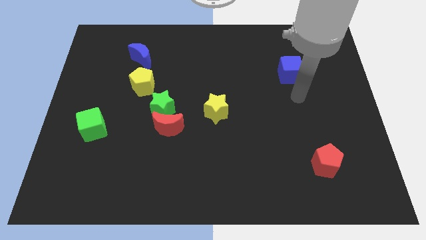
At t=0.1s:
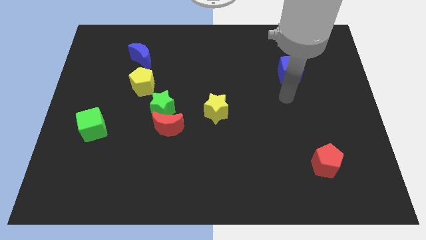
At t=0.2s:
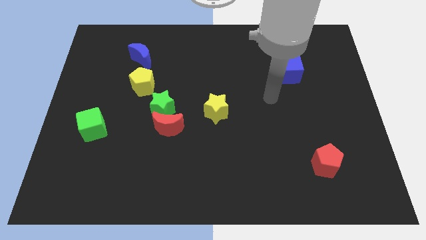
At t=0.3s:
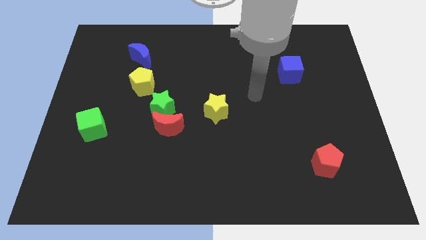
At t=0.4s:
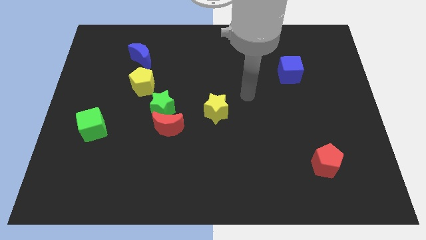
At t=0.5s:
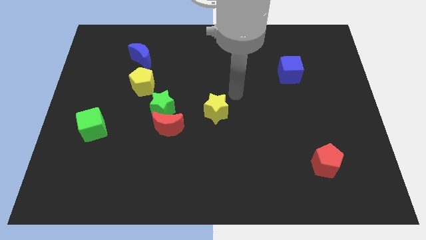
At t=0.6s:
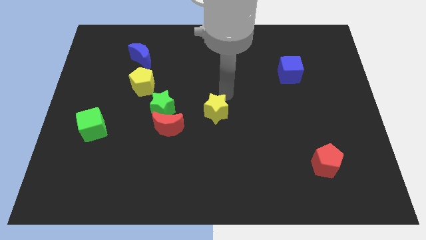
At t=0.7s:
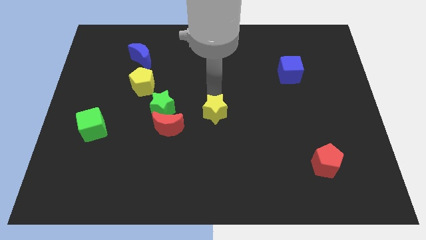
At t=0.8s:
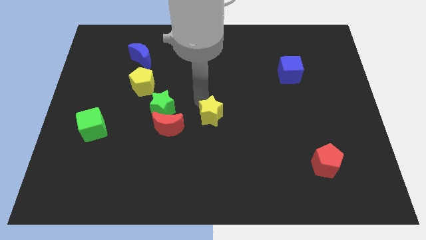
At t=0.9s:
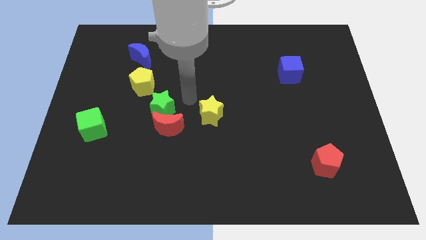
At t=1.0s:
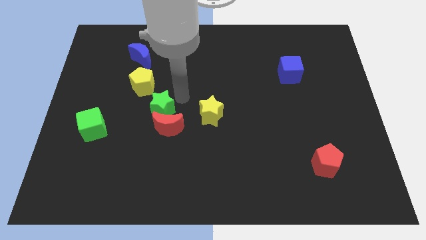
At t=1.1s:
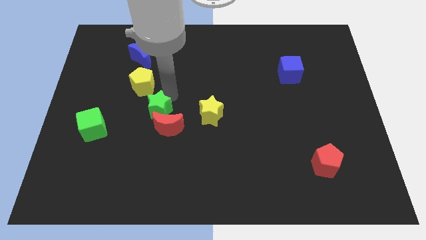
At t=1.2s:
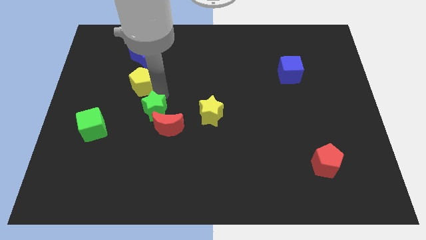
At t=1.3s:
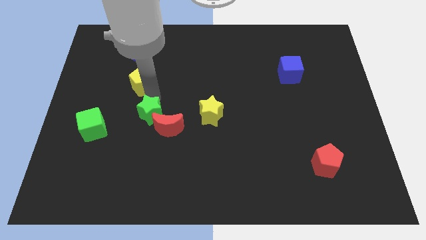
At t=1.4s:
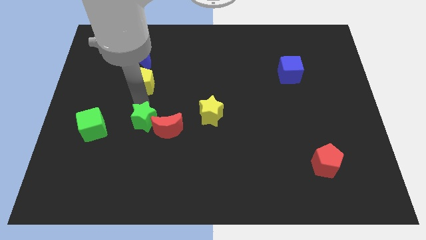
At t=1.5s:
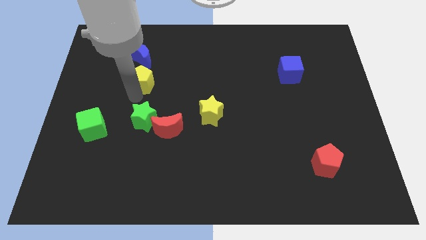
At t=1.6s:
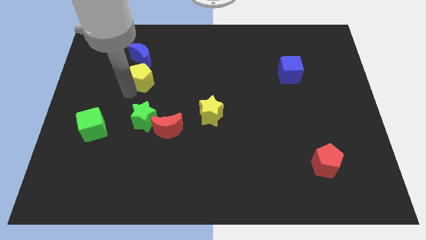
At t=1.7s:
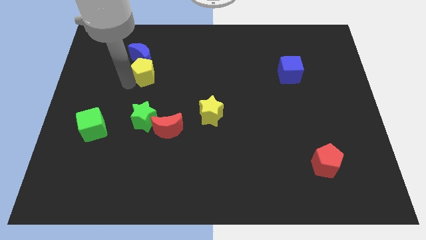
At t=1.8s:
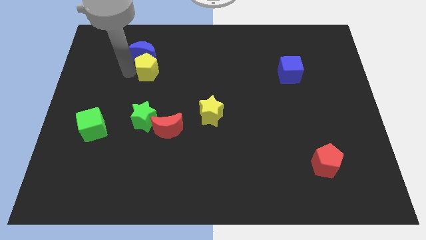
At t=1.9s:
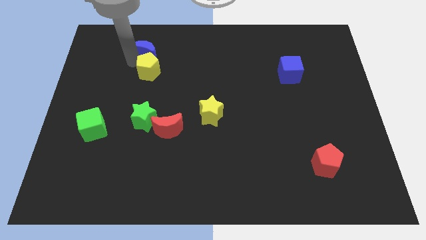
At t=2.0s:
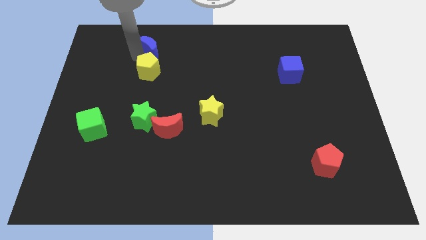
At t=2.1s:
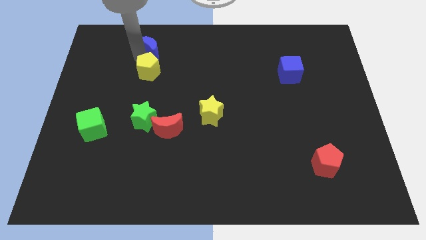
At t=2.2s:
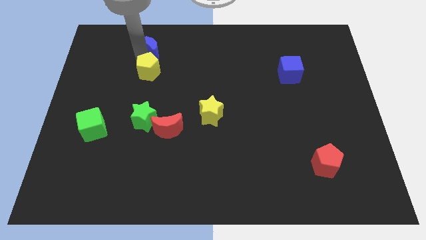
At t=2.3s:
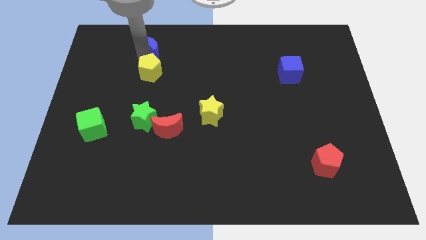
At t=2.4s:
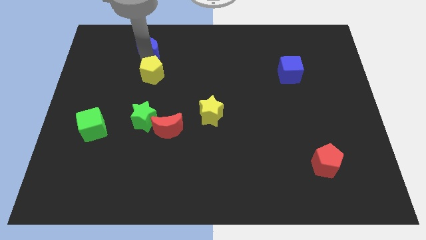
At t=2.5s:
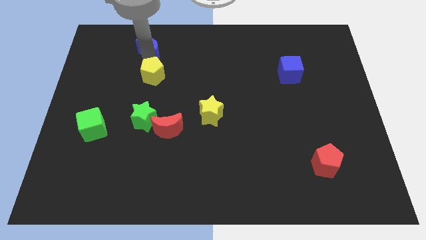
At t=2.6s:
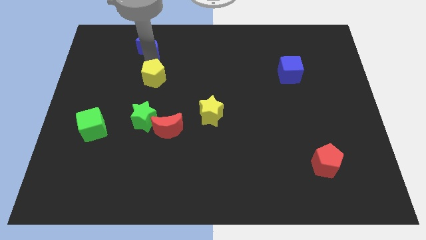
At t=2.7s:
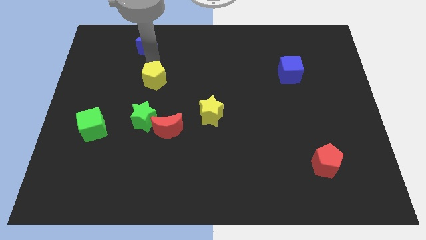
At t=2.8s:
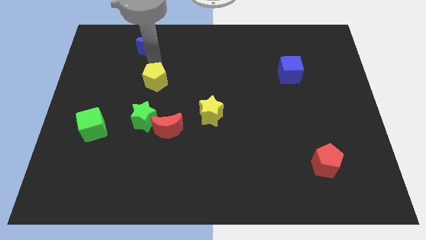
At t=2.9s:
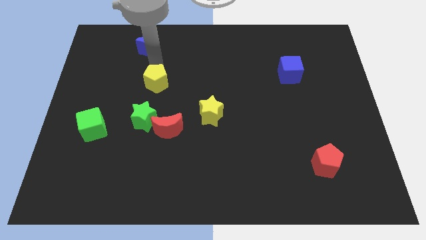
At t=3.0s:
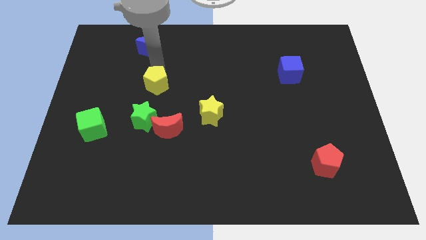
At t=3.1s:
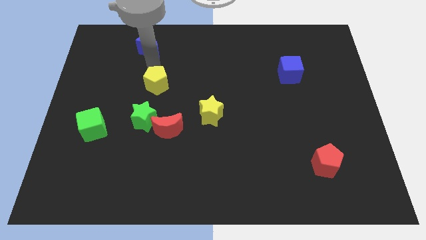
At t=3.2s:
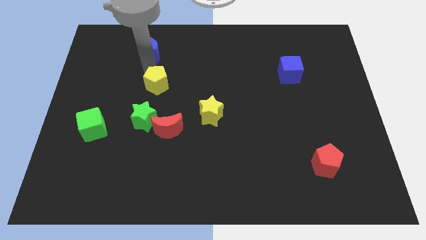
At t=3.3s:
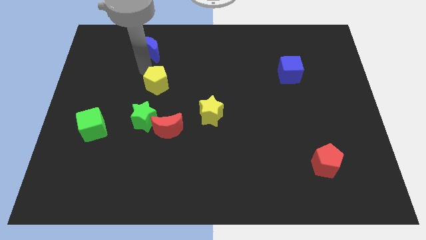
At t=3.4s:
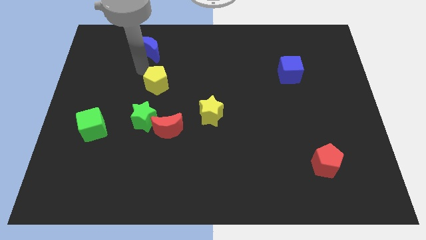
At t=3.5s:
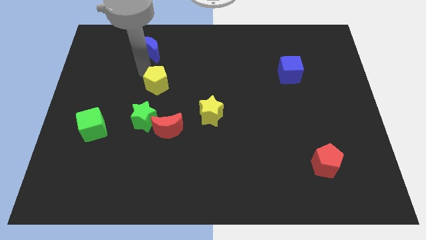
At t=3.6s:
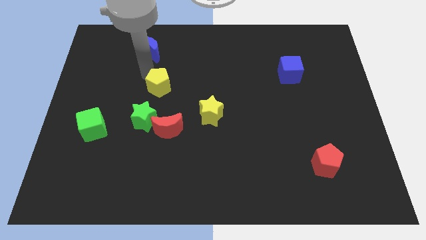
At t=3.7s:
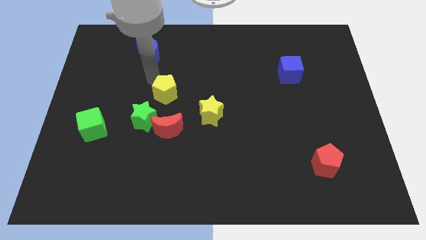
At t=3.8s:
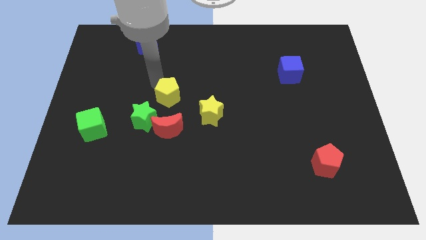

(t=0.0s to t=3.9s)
slightly slide the yellow pentagon downwards and right

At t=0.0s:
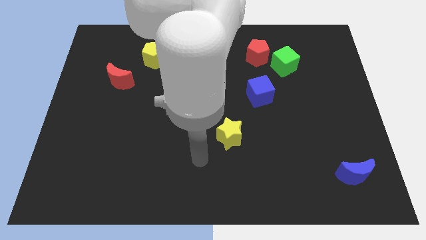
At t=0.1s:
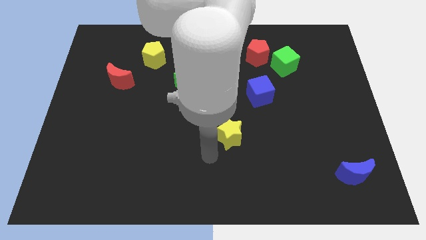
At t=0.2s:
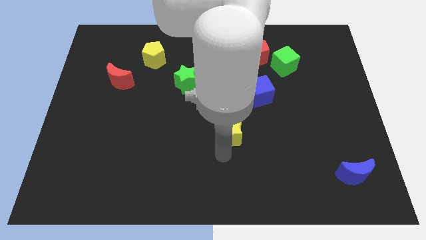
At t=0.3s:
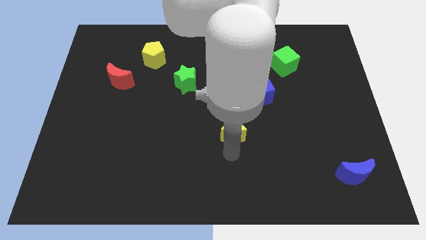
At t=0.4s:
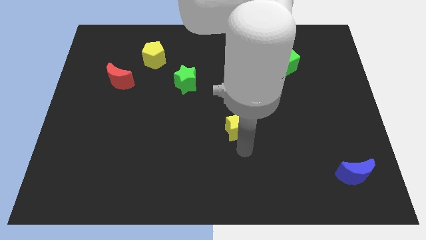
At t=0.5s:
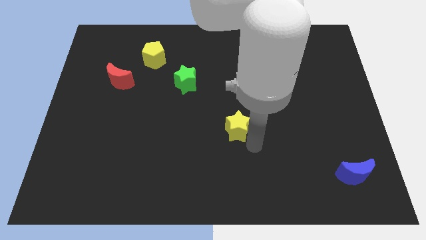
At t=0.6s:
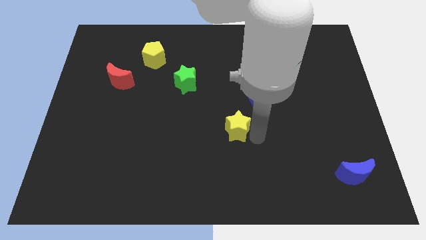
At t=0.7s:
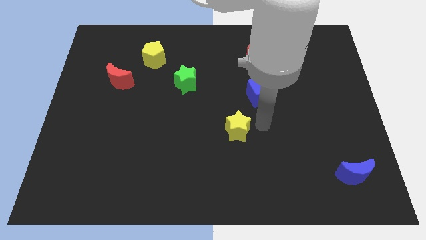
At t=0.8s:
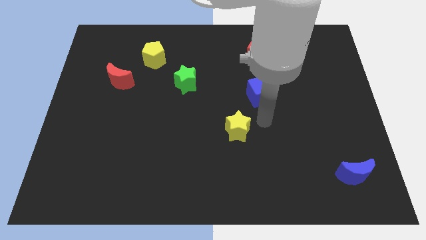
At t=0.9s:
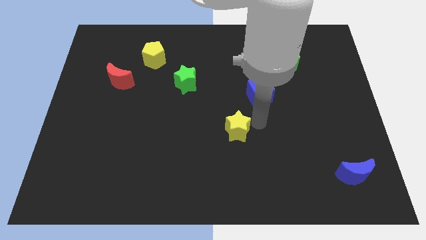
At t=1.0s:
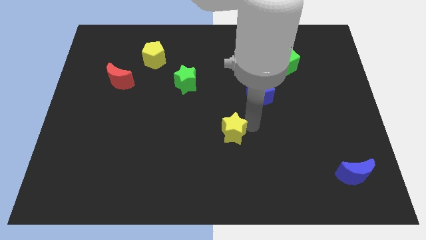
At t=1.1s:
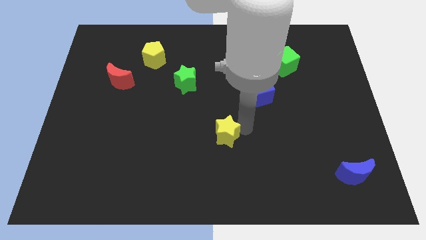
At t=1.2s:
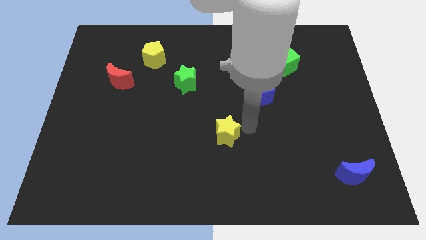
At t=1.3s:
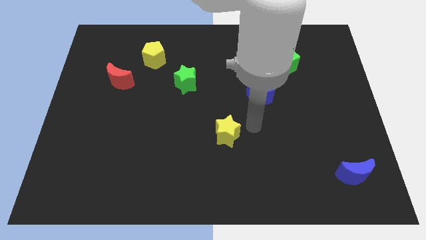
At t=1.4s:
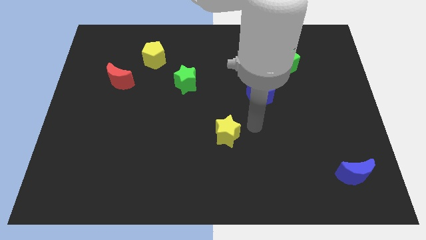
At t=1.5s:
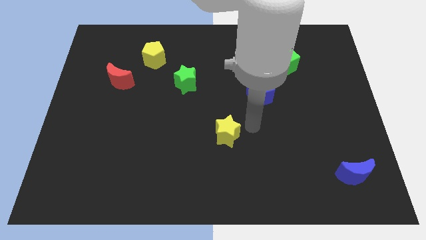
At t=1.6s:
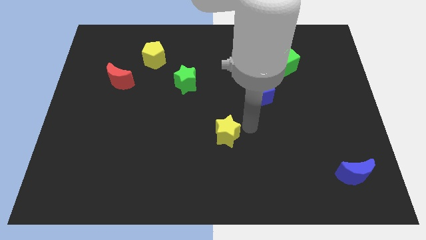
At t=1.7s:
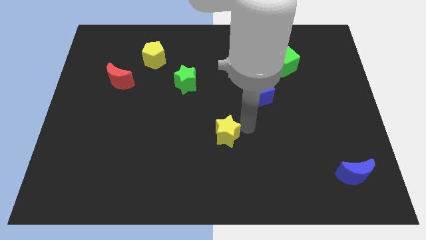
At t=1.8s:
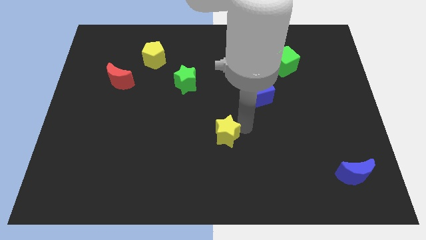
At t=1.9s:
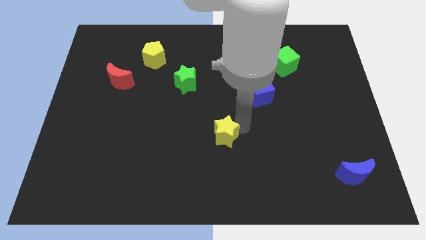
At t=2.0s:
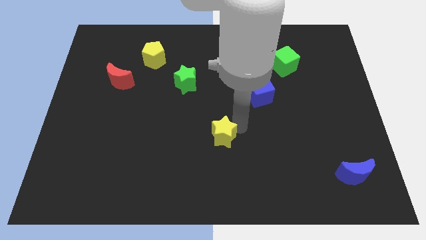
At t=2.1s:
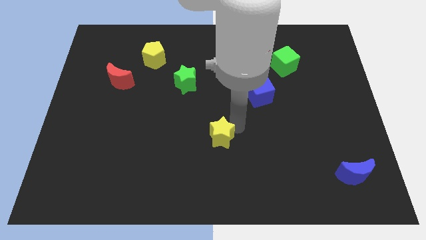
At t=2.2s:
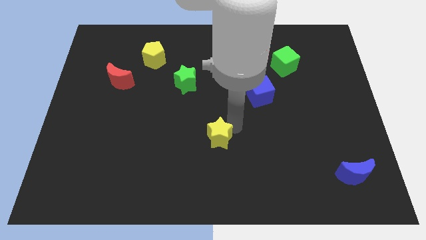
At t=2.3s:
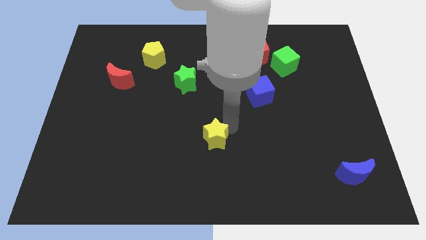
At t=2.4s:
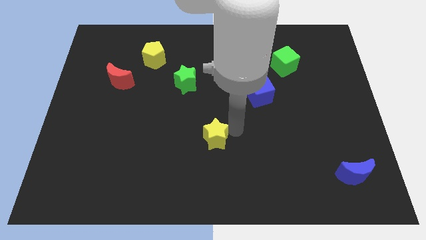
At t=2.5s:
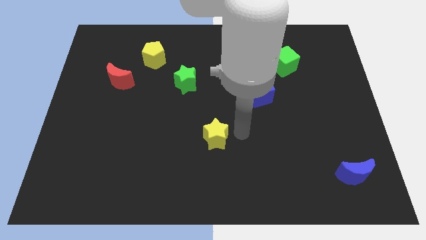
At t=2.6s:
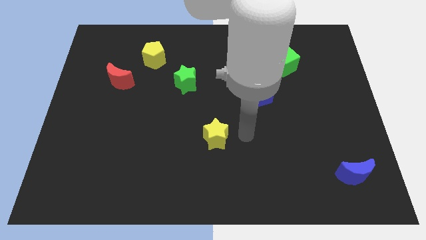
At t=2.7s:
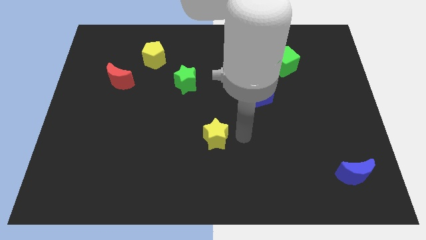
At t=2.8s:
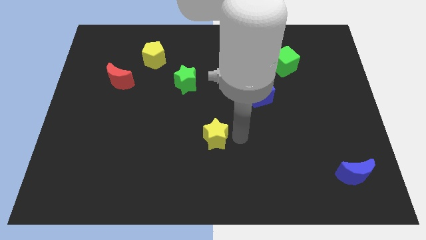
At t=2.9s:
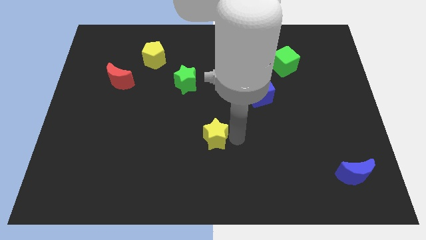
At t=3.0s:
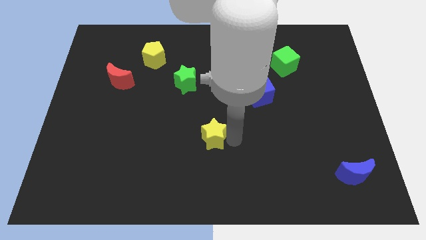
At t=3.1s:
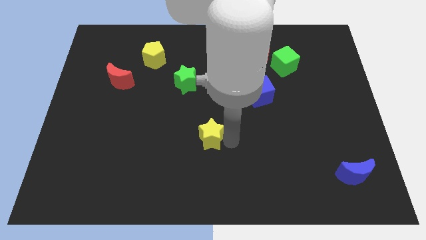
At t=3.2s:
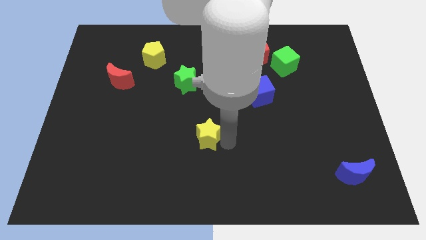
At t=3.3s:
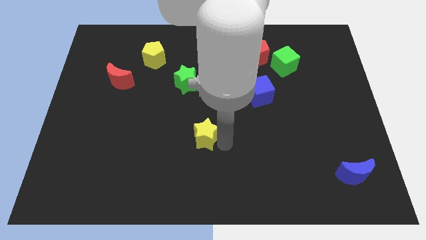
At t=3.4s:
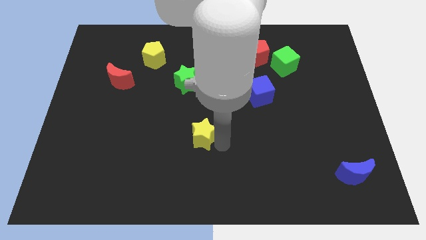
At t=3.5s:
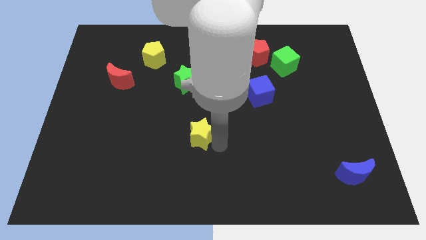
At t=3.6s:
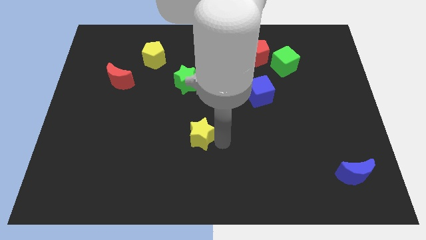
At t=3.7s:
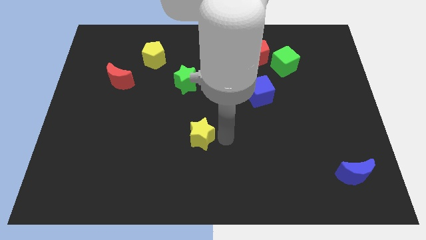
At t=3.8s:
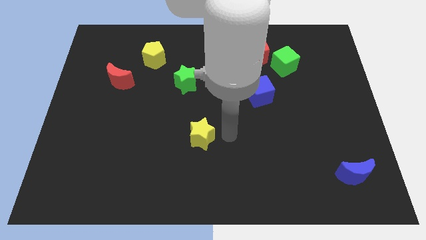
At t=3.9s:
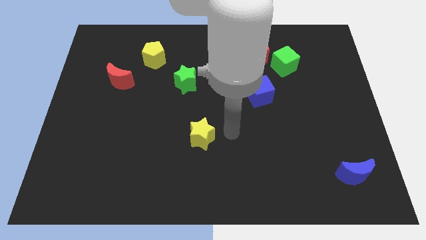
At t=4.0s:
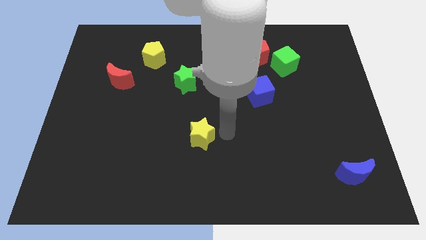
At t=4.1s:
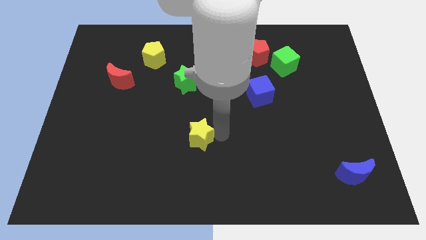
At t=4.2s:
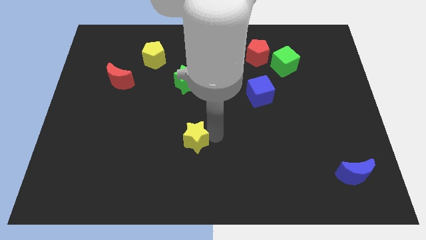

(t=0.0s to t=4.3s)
move the yellow star a little to the left

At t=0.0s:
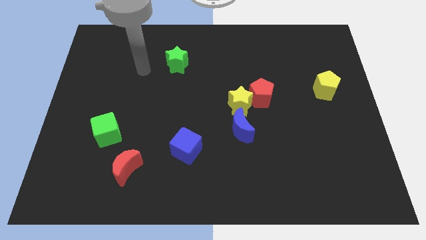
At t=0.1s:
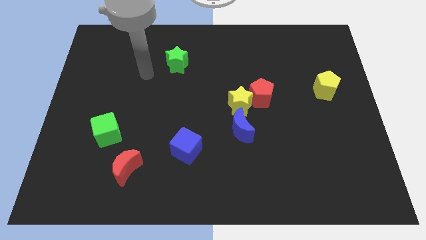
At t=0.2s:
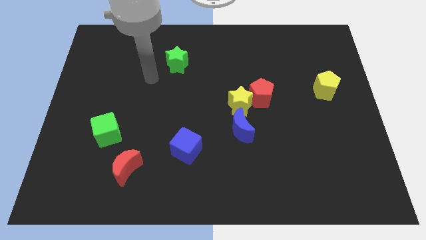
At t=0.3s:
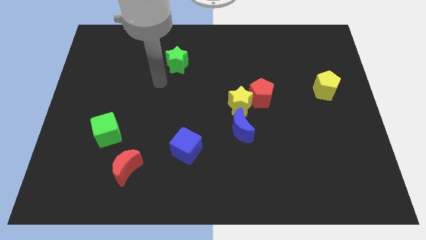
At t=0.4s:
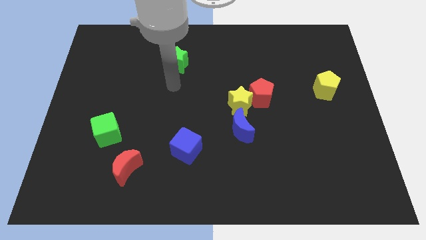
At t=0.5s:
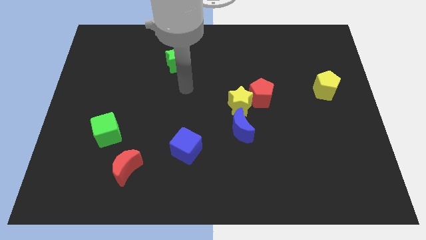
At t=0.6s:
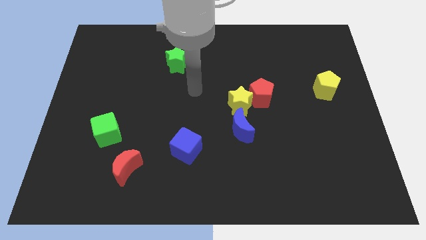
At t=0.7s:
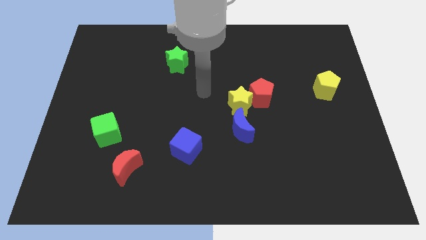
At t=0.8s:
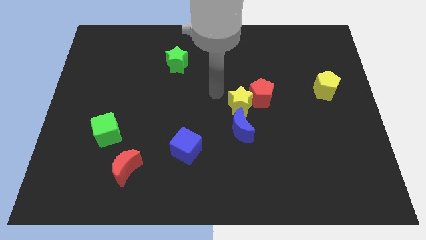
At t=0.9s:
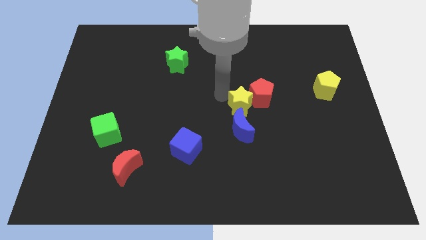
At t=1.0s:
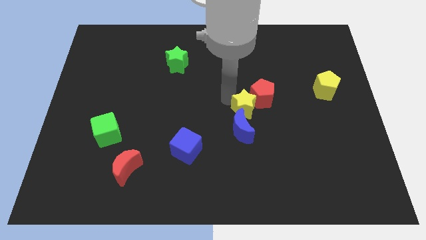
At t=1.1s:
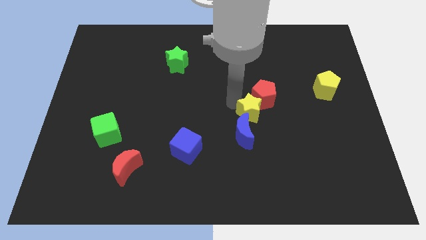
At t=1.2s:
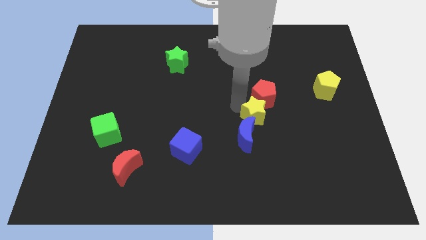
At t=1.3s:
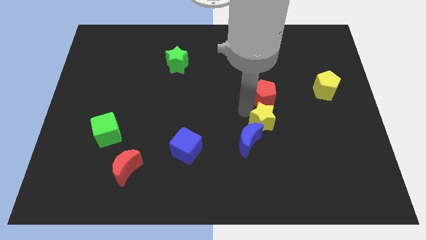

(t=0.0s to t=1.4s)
slightly slide the yellow star down and right
